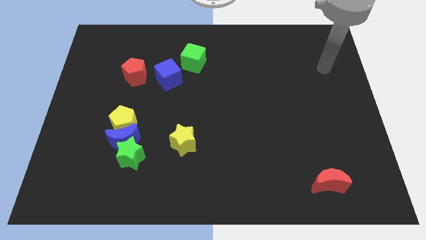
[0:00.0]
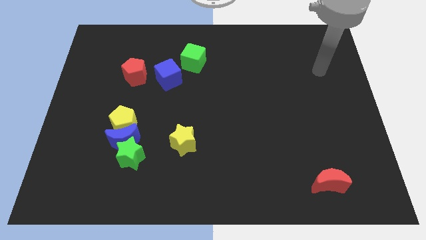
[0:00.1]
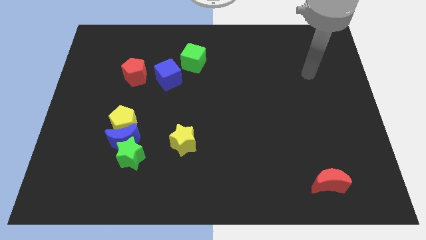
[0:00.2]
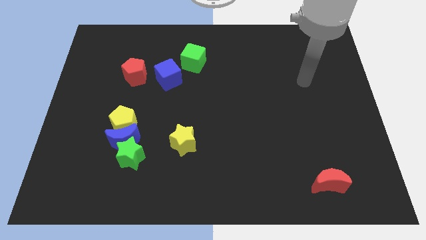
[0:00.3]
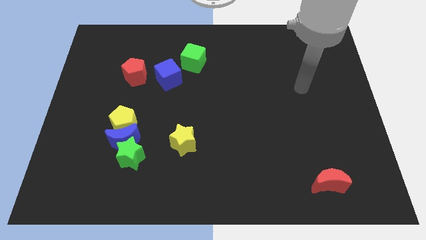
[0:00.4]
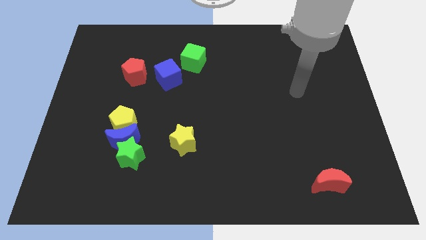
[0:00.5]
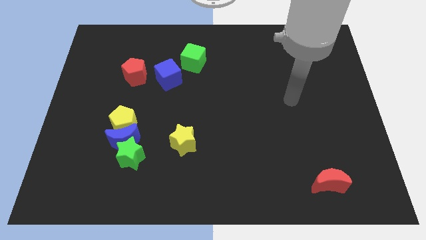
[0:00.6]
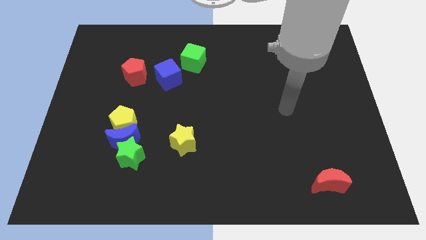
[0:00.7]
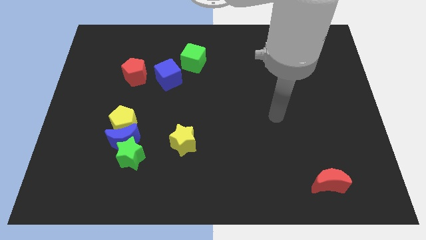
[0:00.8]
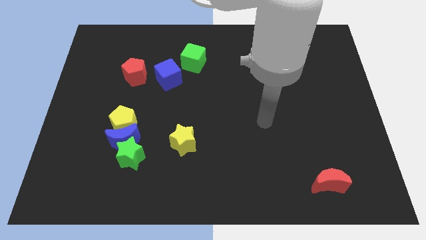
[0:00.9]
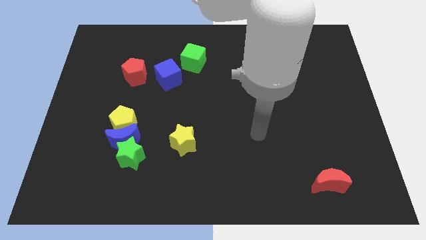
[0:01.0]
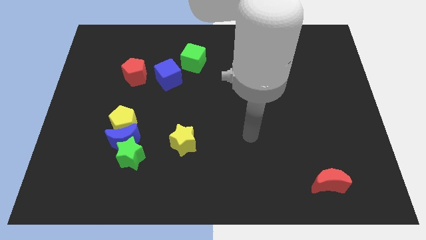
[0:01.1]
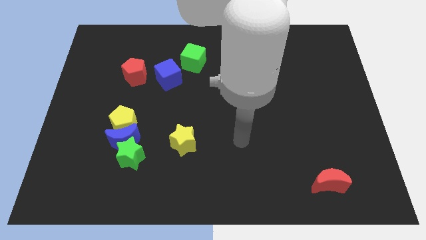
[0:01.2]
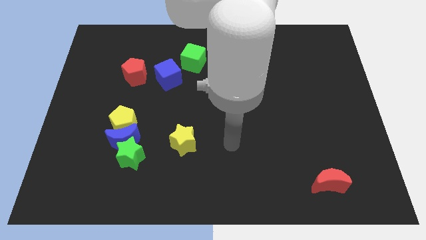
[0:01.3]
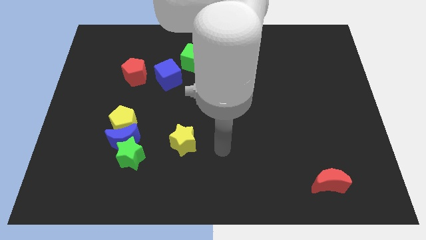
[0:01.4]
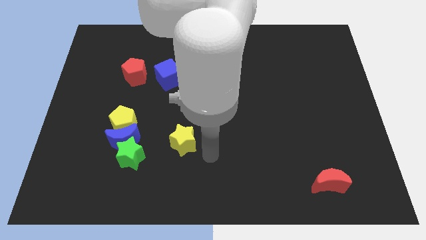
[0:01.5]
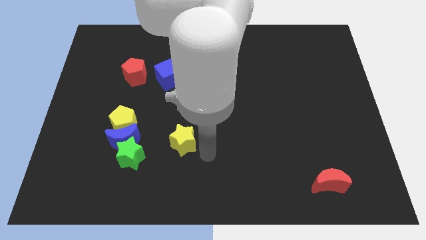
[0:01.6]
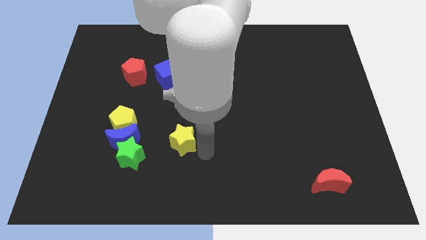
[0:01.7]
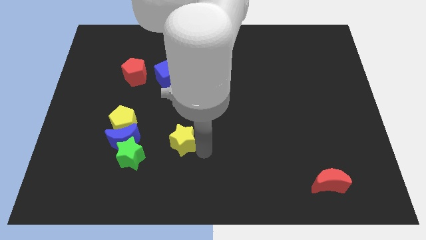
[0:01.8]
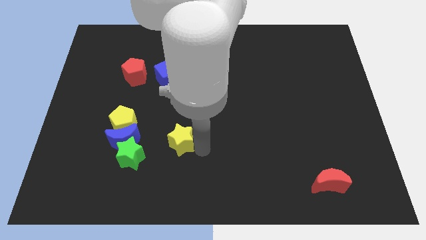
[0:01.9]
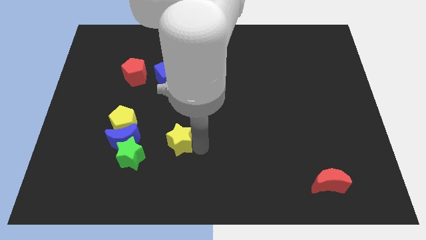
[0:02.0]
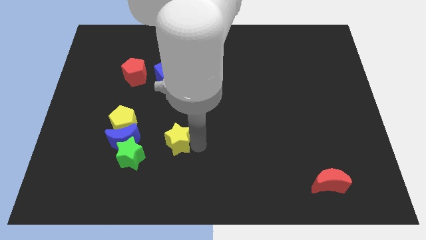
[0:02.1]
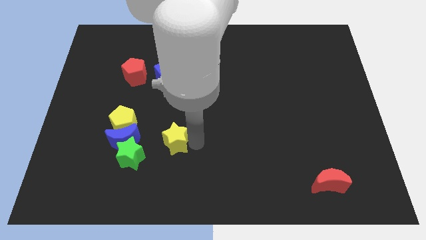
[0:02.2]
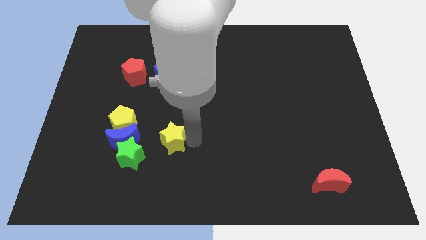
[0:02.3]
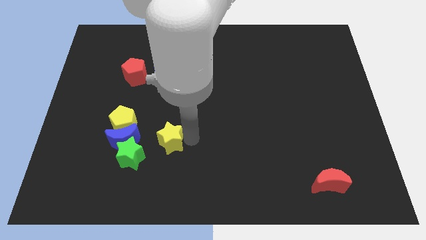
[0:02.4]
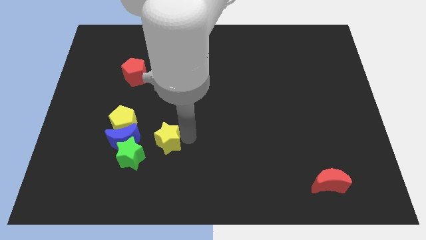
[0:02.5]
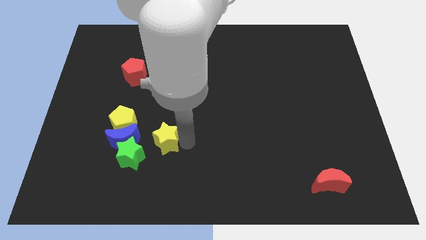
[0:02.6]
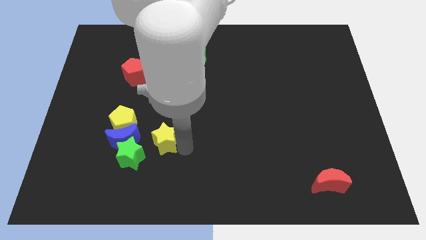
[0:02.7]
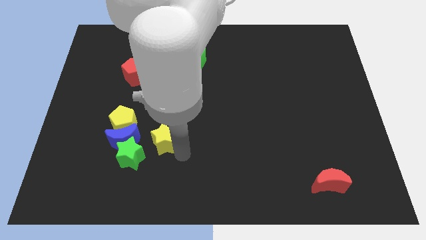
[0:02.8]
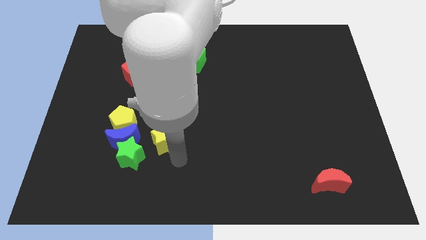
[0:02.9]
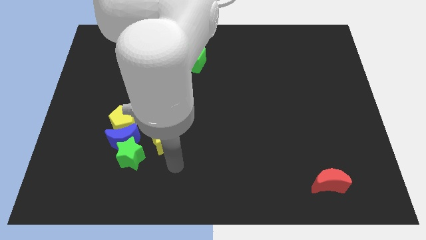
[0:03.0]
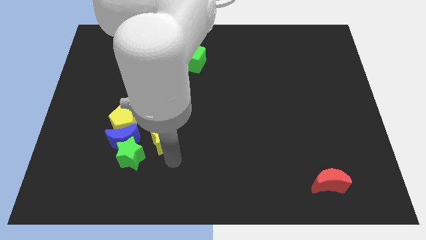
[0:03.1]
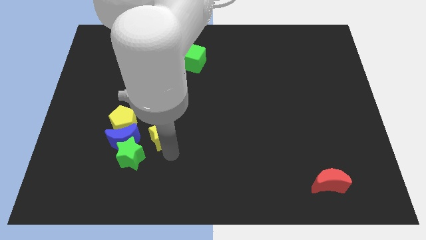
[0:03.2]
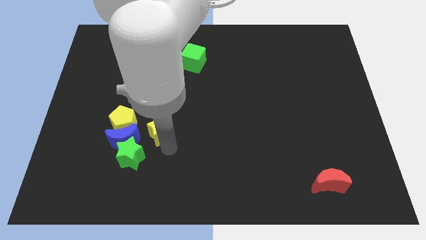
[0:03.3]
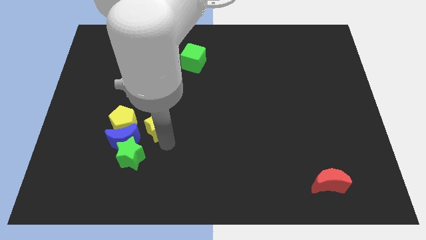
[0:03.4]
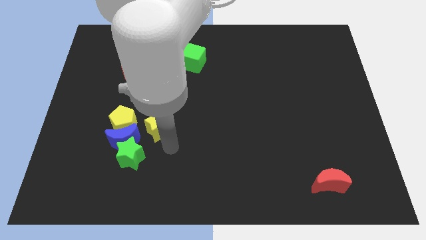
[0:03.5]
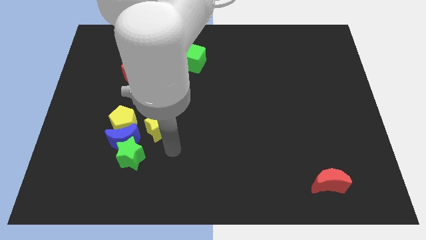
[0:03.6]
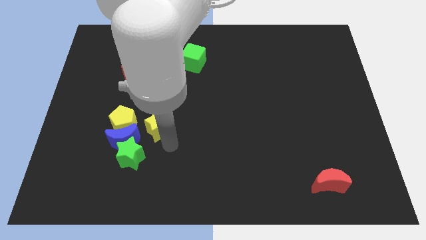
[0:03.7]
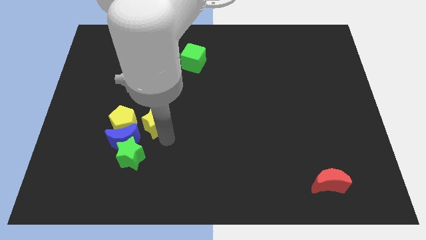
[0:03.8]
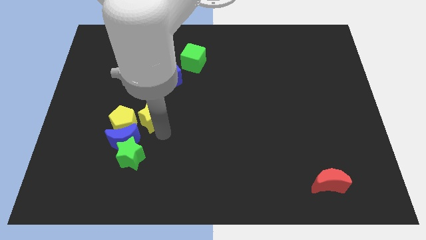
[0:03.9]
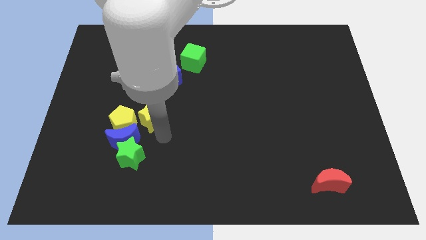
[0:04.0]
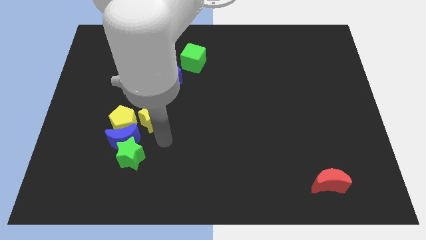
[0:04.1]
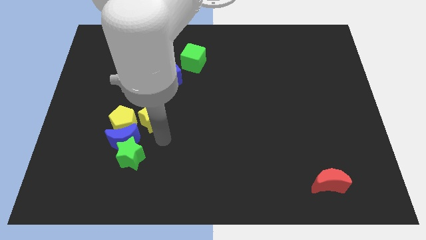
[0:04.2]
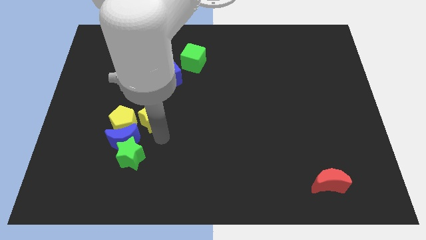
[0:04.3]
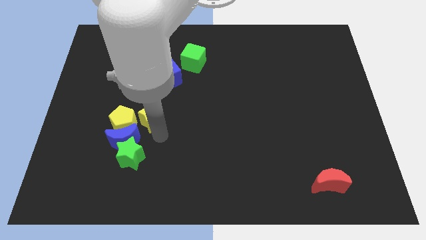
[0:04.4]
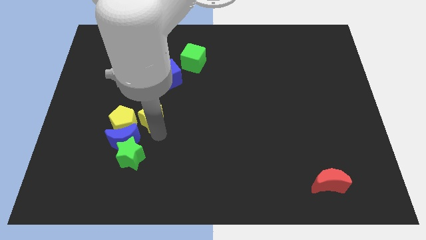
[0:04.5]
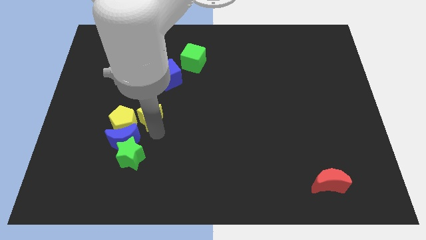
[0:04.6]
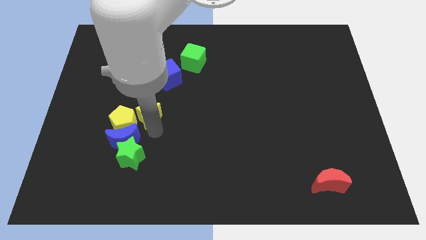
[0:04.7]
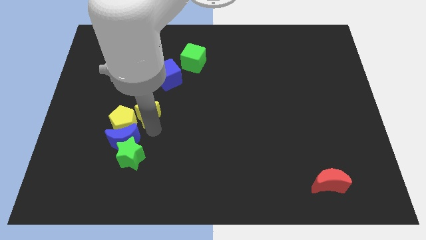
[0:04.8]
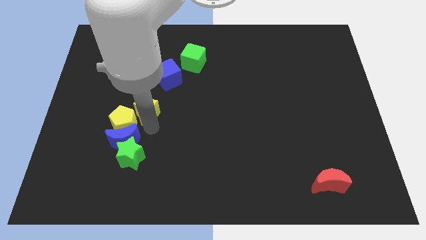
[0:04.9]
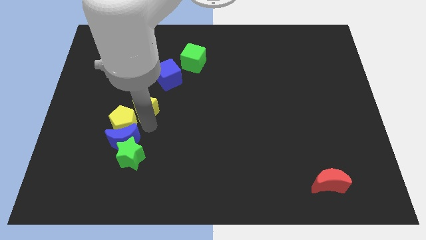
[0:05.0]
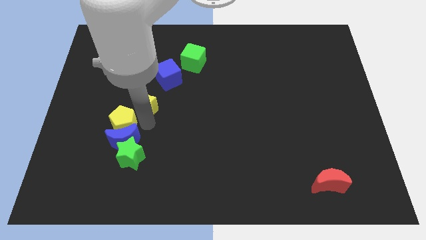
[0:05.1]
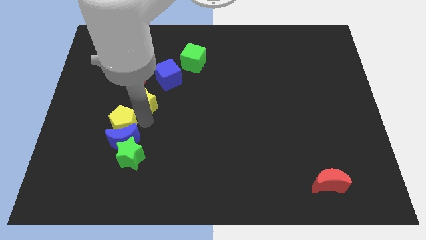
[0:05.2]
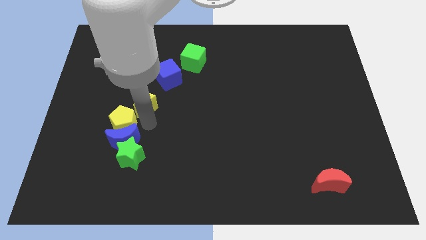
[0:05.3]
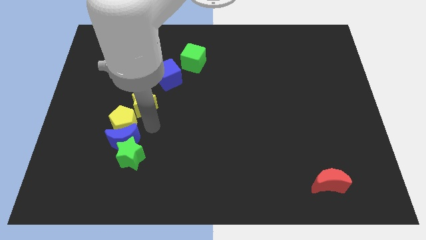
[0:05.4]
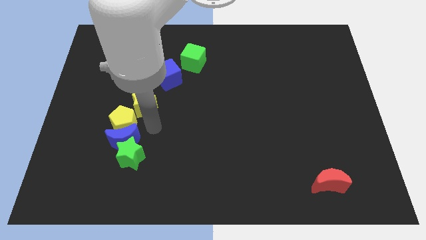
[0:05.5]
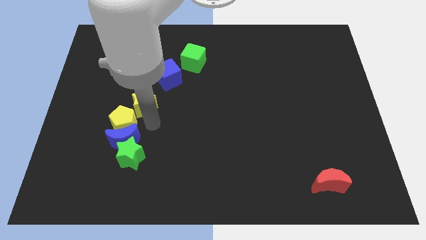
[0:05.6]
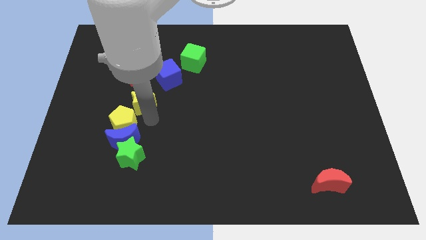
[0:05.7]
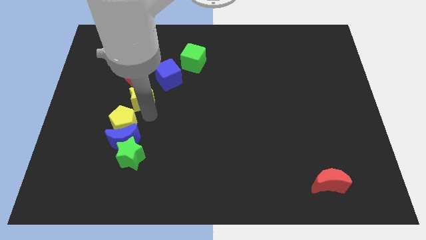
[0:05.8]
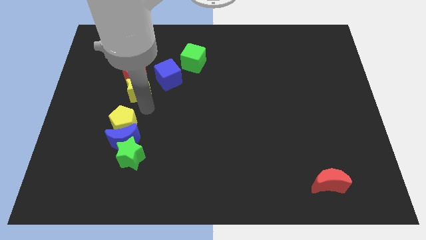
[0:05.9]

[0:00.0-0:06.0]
slide the yellow star close to the red pentagon

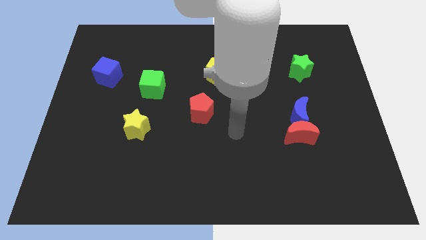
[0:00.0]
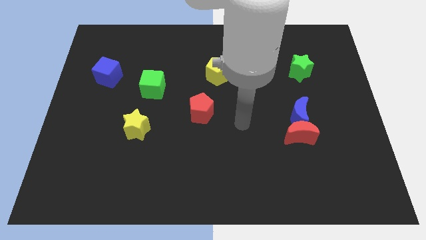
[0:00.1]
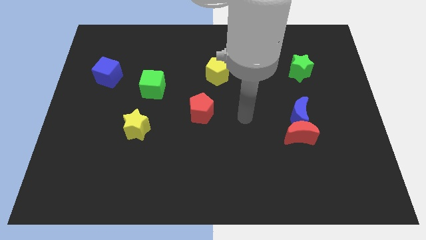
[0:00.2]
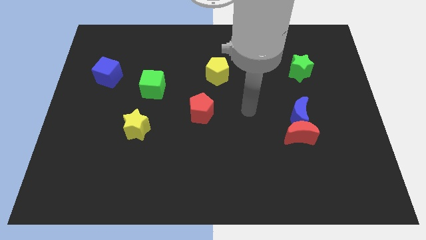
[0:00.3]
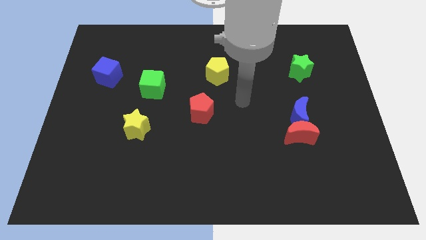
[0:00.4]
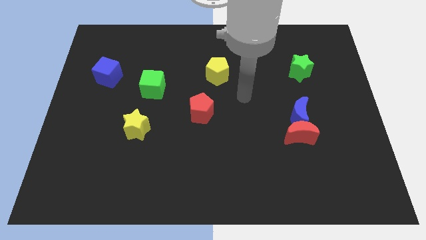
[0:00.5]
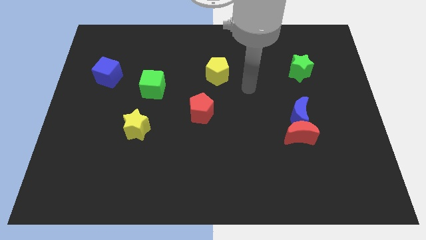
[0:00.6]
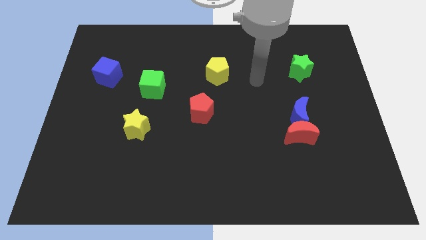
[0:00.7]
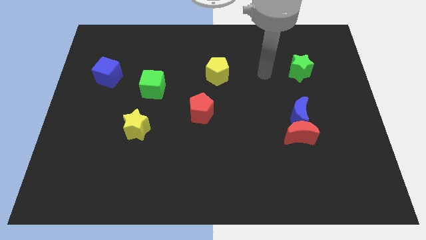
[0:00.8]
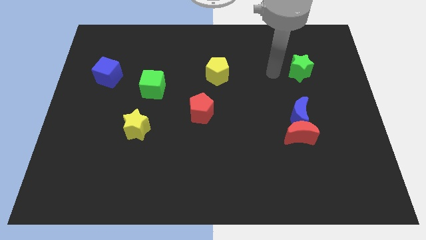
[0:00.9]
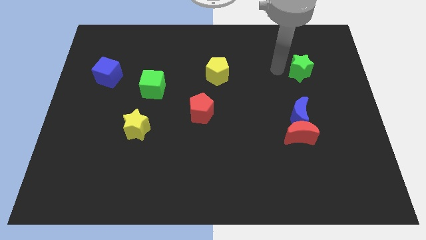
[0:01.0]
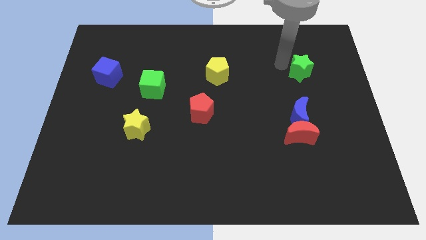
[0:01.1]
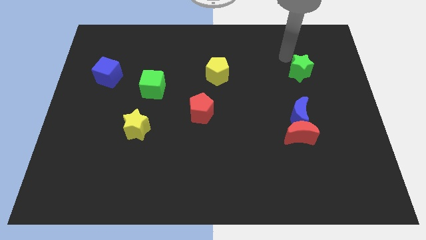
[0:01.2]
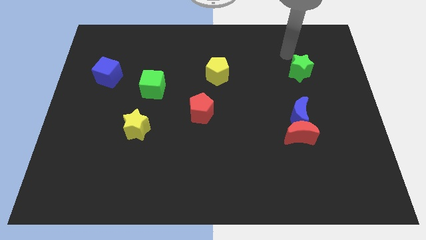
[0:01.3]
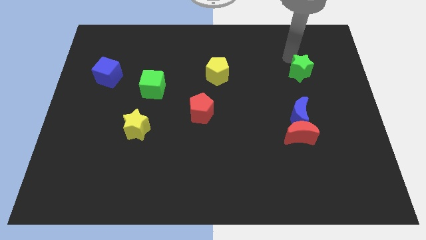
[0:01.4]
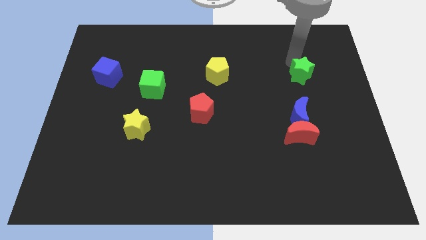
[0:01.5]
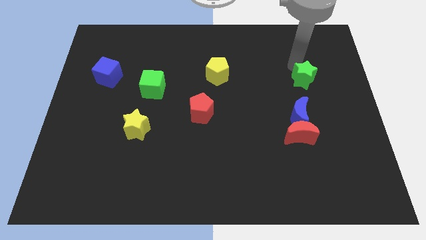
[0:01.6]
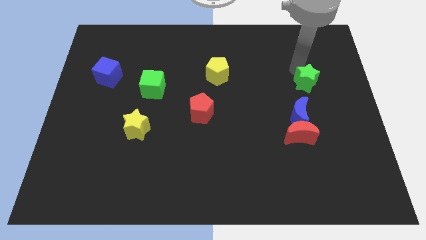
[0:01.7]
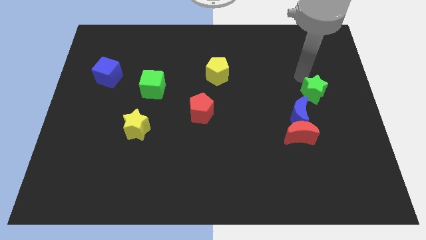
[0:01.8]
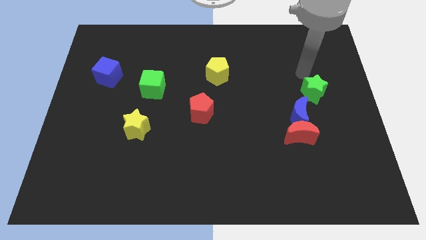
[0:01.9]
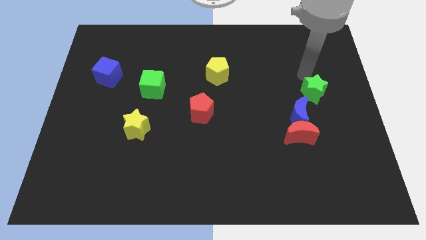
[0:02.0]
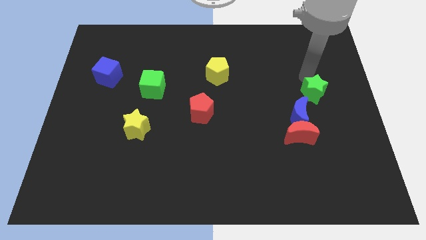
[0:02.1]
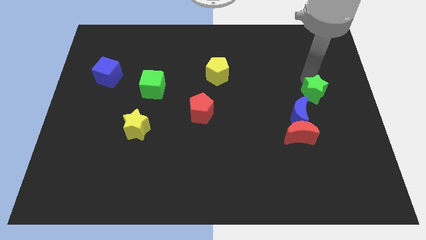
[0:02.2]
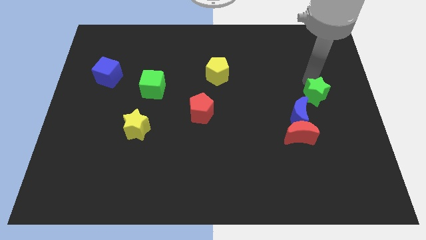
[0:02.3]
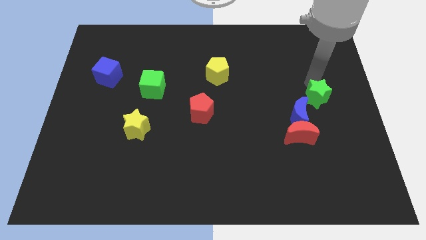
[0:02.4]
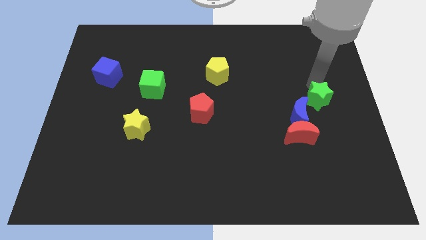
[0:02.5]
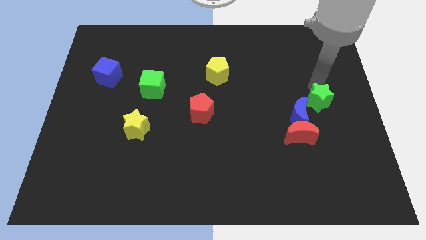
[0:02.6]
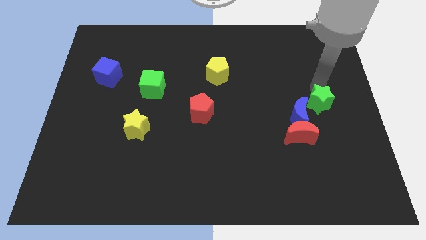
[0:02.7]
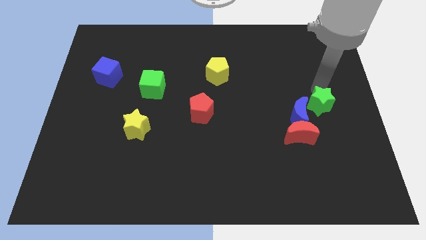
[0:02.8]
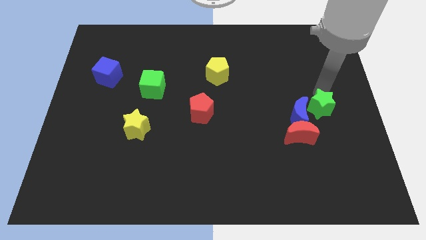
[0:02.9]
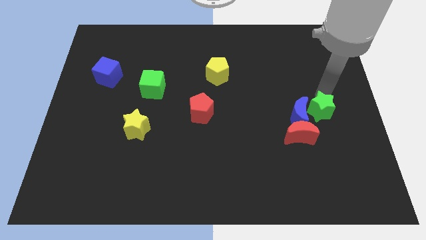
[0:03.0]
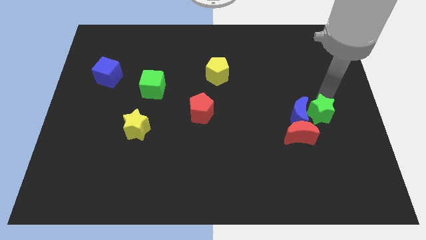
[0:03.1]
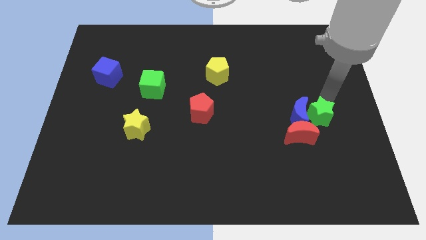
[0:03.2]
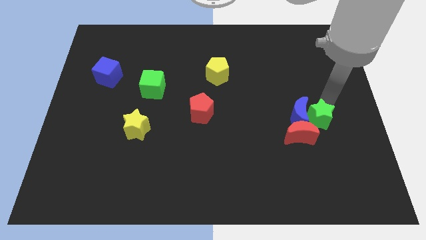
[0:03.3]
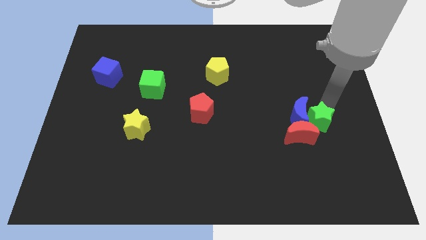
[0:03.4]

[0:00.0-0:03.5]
put the green star to the red moon
